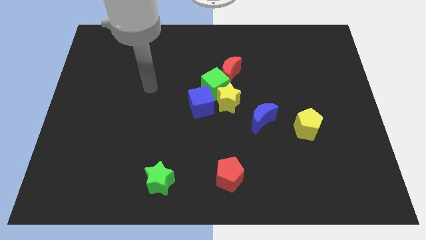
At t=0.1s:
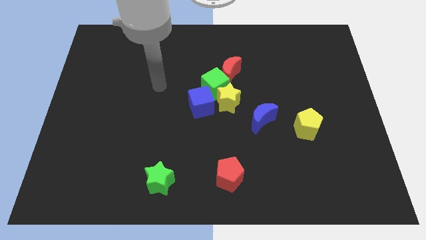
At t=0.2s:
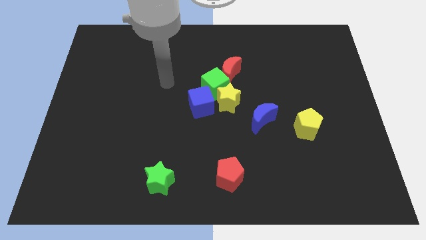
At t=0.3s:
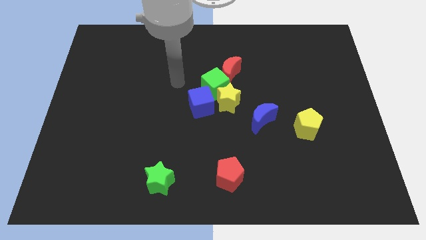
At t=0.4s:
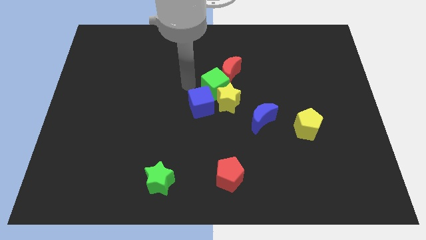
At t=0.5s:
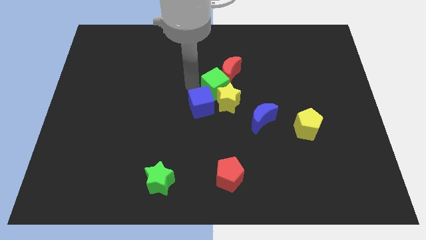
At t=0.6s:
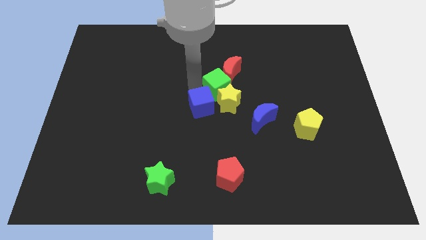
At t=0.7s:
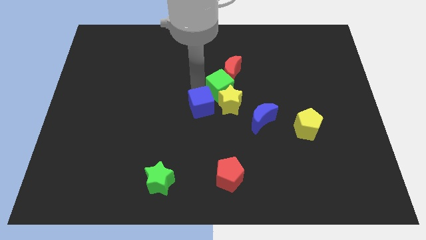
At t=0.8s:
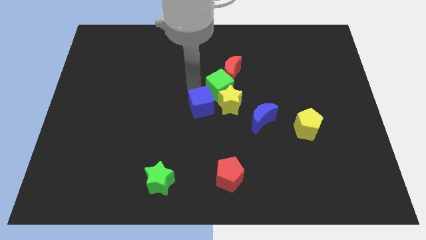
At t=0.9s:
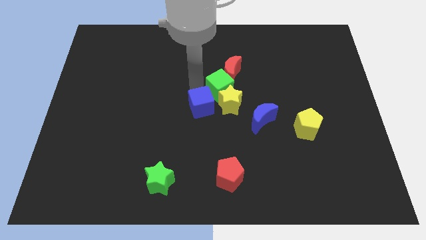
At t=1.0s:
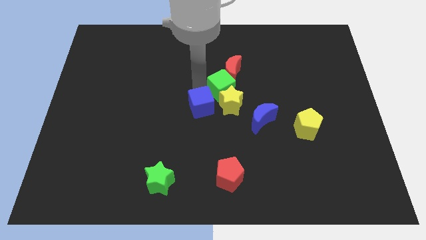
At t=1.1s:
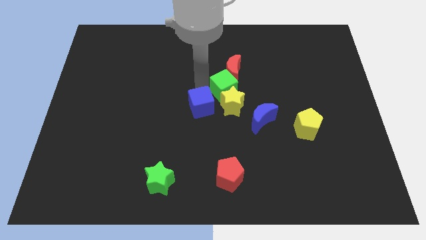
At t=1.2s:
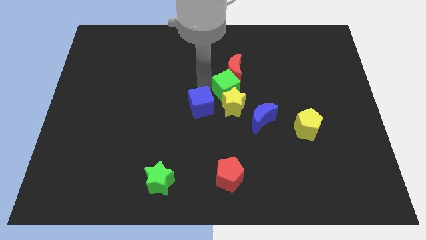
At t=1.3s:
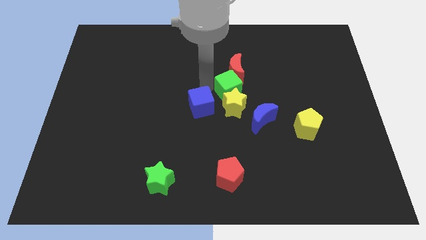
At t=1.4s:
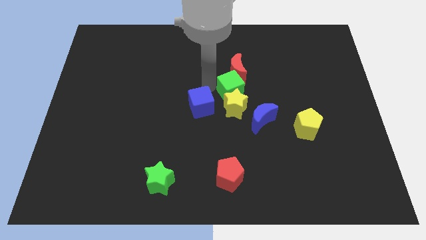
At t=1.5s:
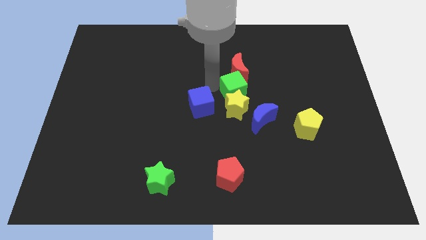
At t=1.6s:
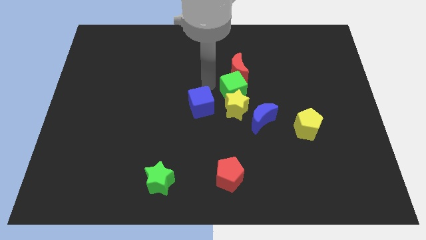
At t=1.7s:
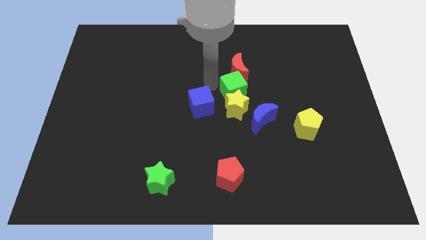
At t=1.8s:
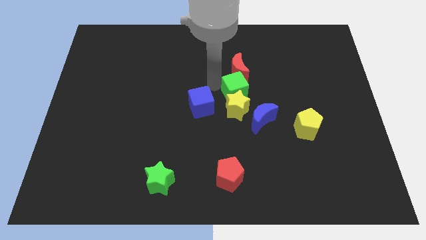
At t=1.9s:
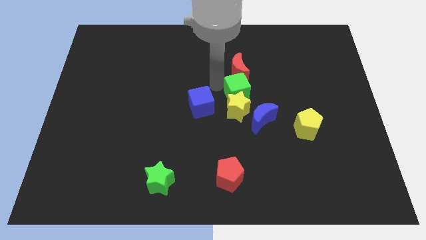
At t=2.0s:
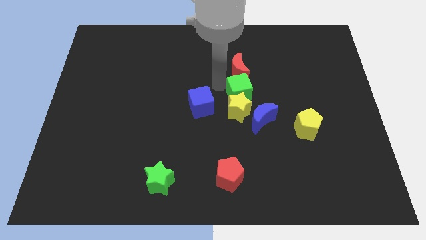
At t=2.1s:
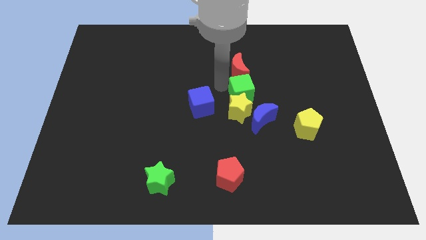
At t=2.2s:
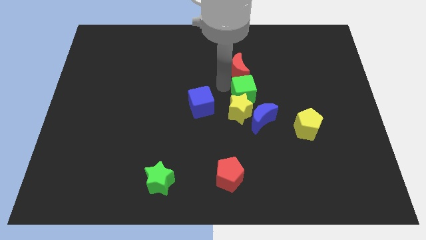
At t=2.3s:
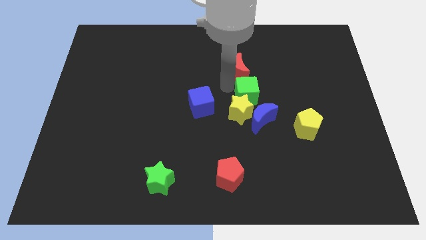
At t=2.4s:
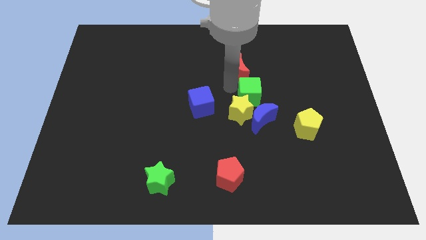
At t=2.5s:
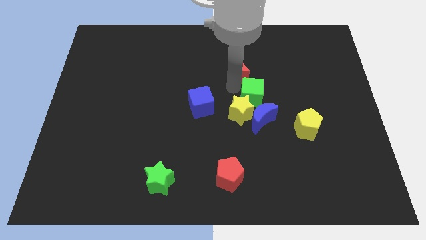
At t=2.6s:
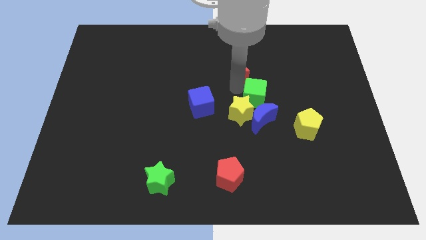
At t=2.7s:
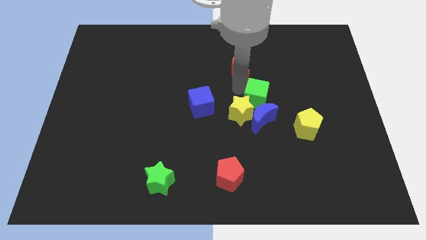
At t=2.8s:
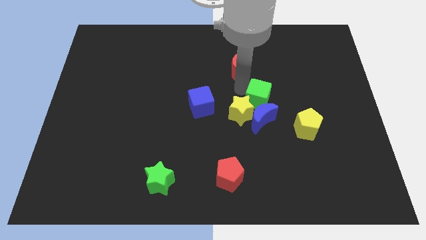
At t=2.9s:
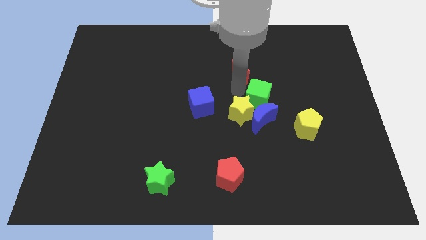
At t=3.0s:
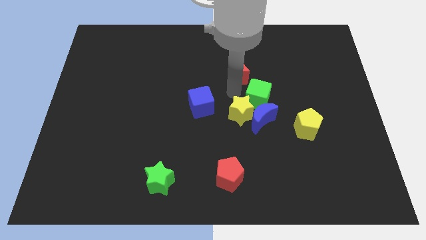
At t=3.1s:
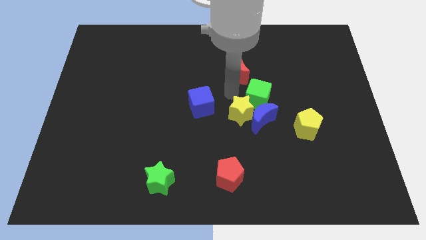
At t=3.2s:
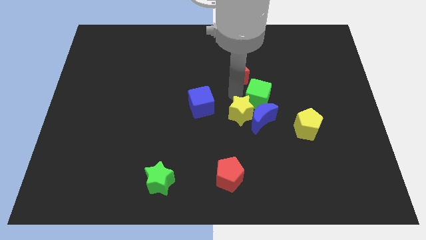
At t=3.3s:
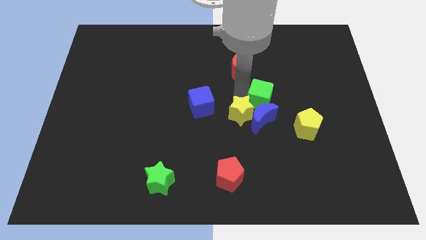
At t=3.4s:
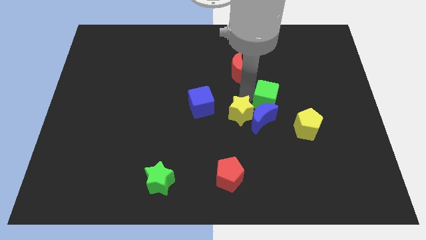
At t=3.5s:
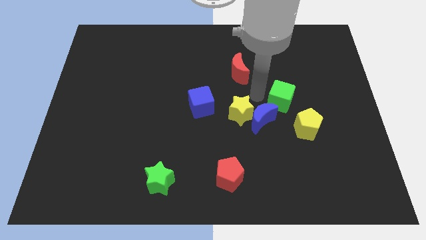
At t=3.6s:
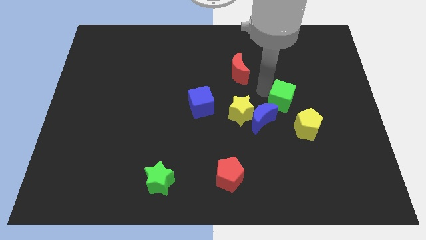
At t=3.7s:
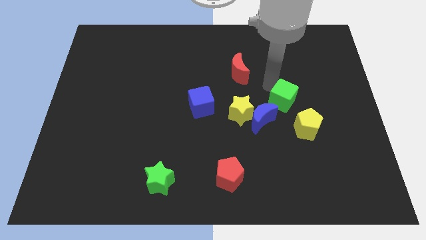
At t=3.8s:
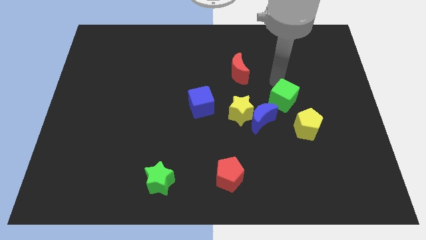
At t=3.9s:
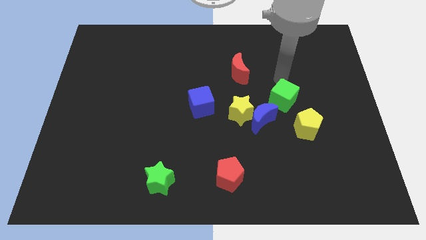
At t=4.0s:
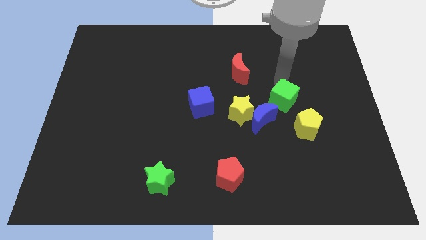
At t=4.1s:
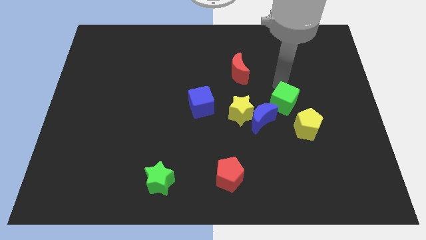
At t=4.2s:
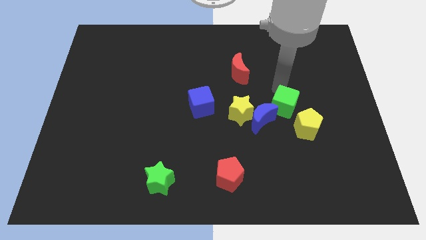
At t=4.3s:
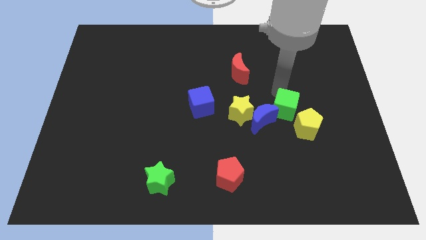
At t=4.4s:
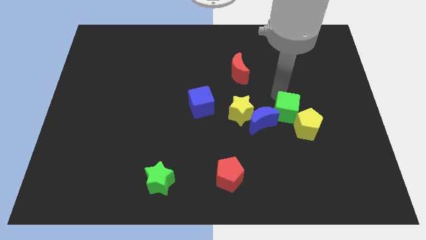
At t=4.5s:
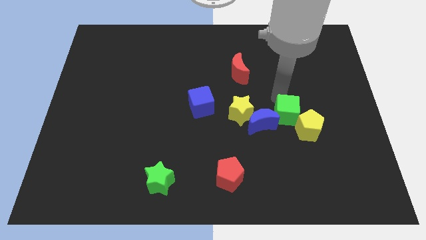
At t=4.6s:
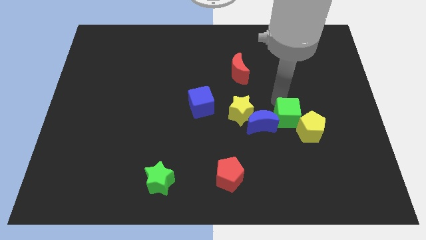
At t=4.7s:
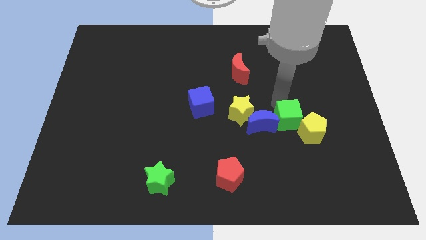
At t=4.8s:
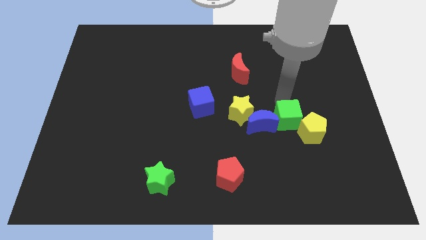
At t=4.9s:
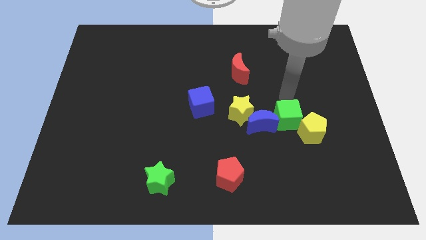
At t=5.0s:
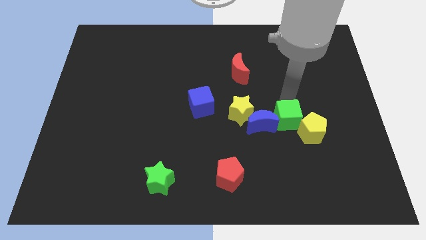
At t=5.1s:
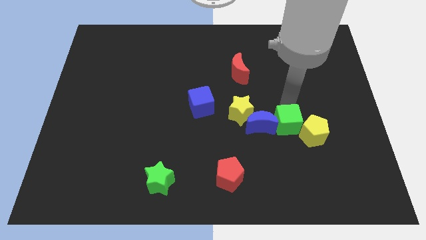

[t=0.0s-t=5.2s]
put the green cube to the bottom right side of the blue moon
